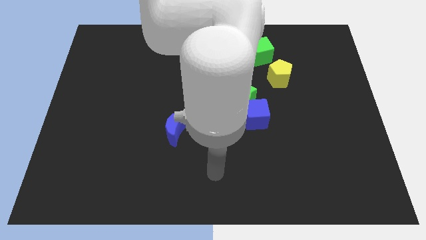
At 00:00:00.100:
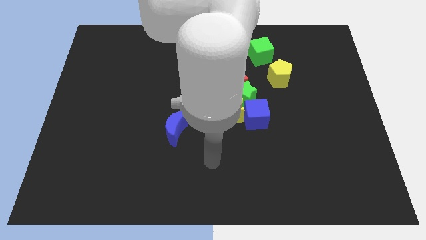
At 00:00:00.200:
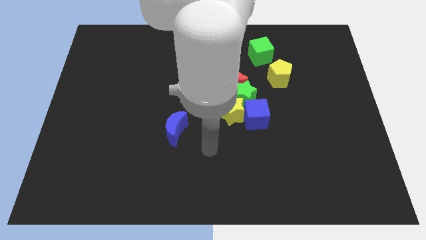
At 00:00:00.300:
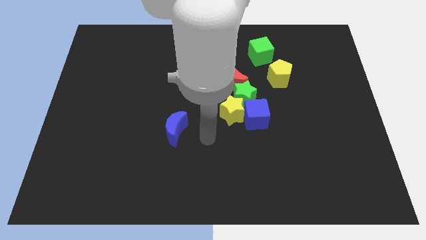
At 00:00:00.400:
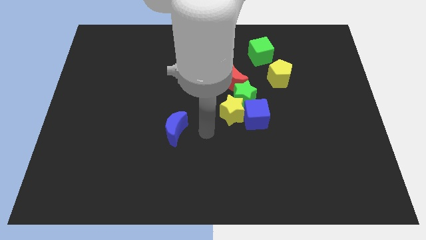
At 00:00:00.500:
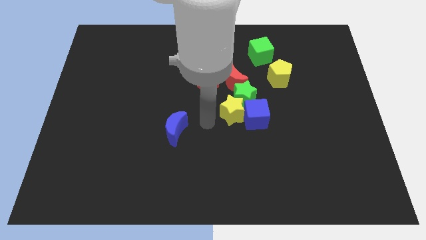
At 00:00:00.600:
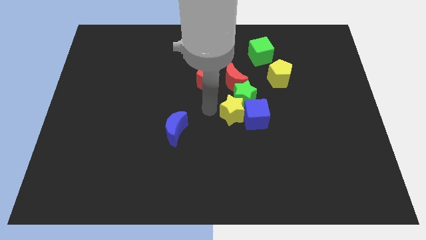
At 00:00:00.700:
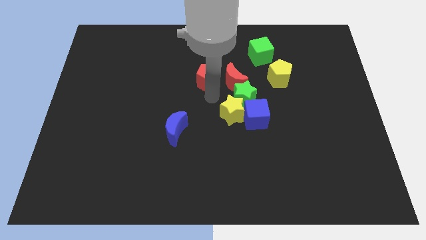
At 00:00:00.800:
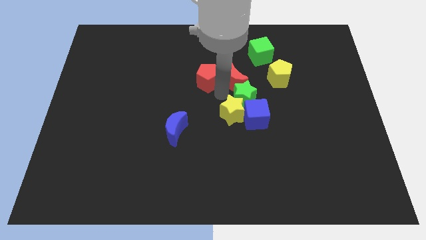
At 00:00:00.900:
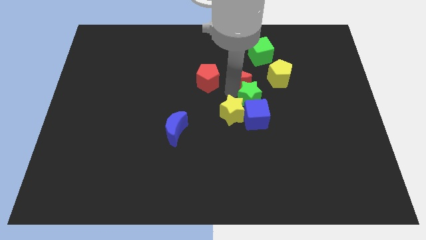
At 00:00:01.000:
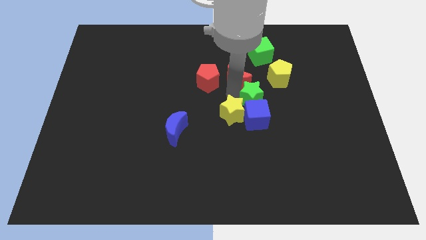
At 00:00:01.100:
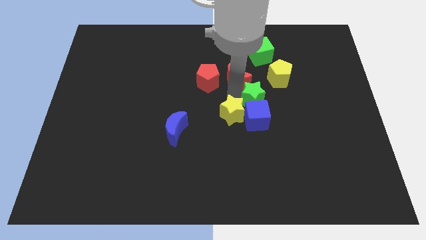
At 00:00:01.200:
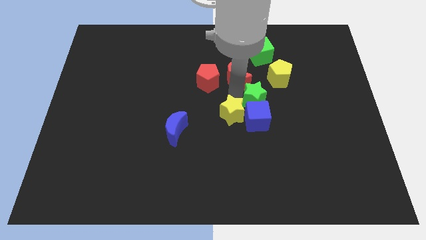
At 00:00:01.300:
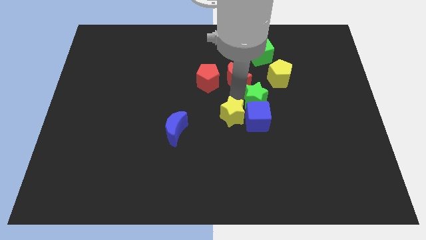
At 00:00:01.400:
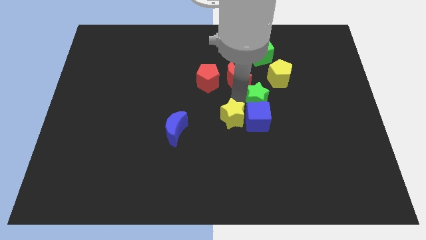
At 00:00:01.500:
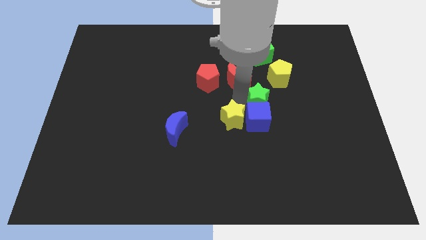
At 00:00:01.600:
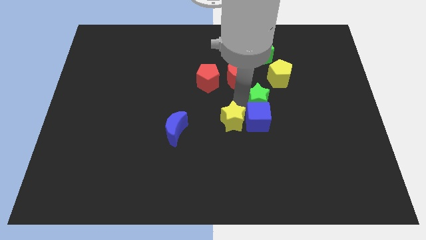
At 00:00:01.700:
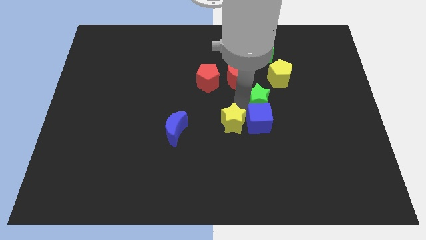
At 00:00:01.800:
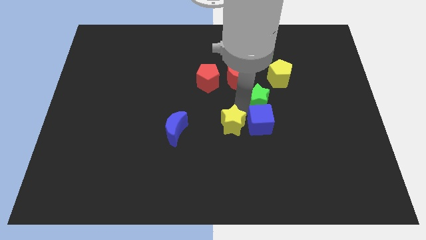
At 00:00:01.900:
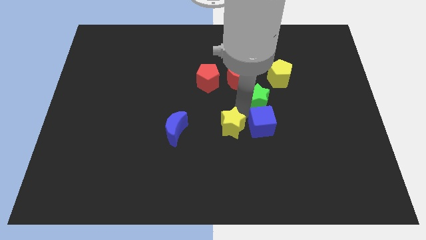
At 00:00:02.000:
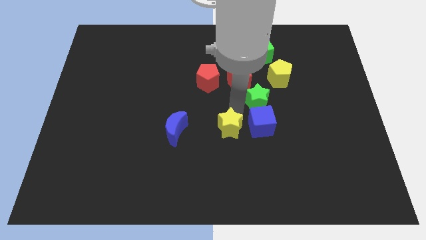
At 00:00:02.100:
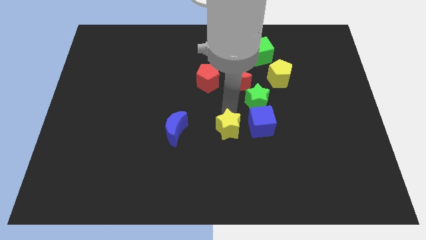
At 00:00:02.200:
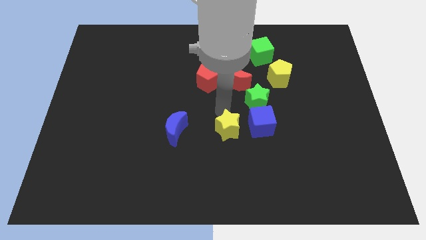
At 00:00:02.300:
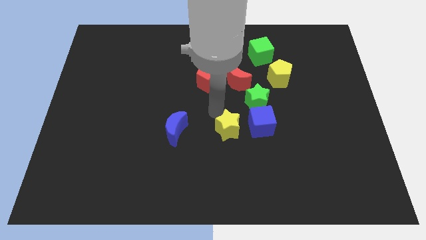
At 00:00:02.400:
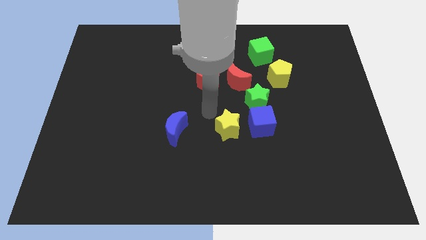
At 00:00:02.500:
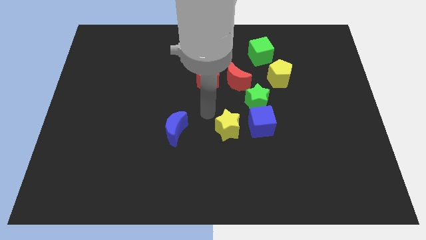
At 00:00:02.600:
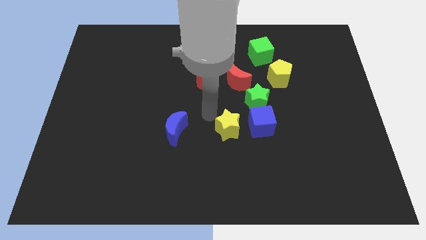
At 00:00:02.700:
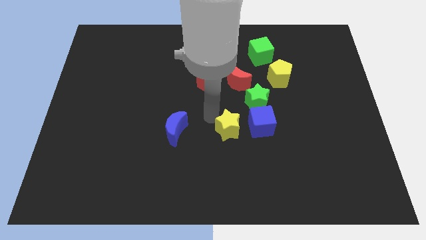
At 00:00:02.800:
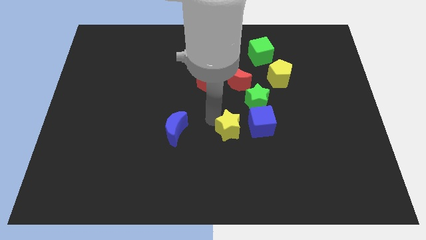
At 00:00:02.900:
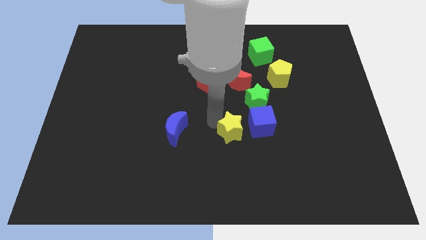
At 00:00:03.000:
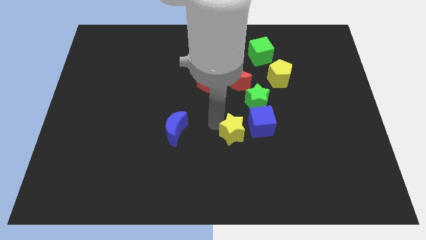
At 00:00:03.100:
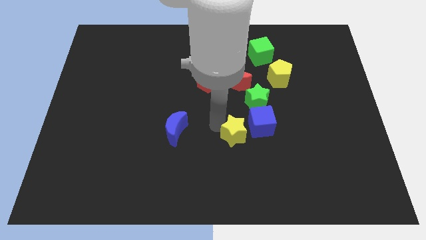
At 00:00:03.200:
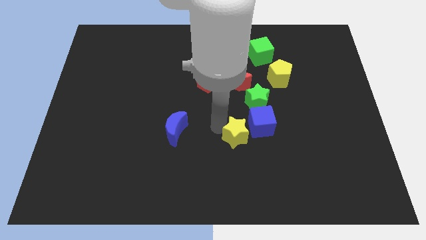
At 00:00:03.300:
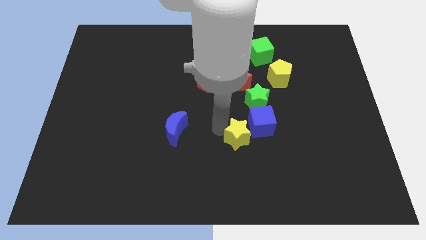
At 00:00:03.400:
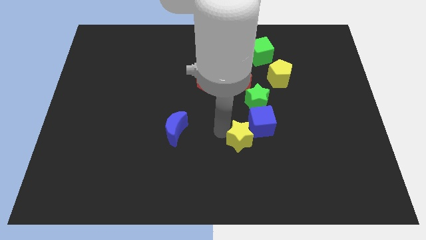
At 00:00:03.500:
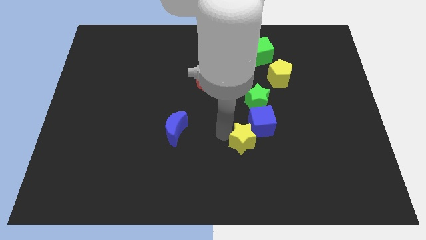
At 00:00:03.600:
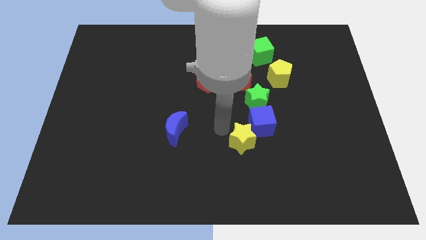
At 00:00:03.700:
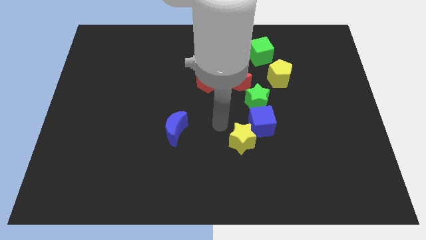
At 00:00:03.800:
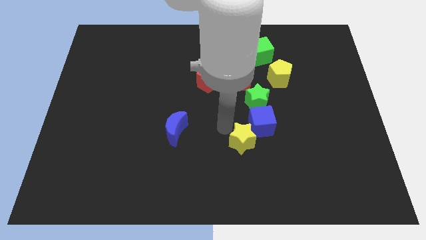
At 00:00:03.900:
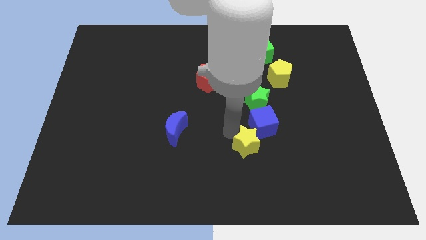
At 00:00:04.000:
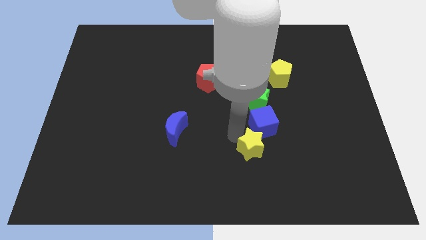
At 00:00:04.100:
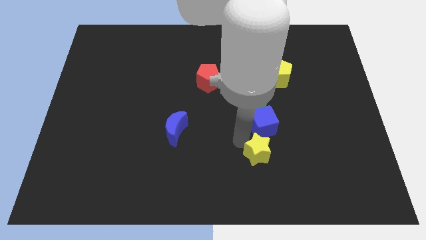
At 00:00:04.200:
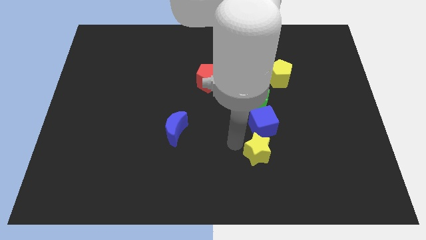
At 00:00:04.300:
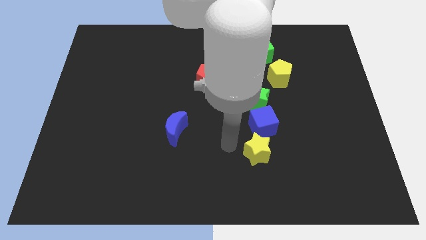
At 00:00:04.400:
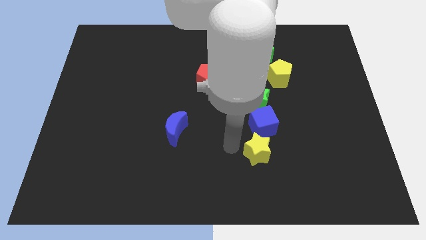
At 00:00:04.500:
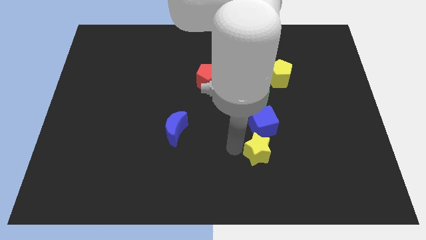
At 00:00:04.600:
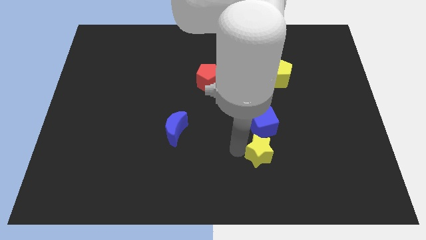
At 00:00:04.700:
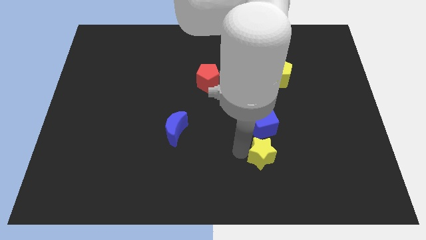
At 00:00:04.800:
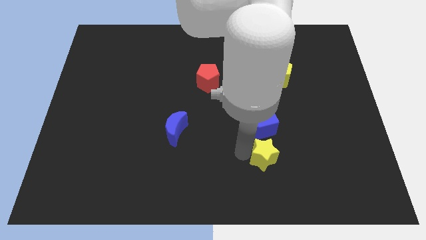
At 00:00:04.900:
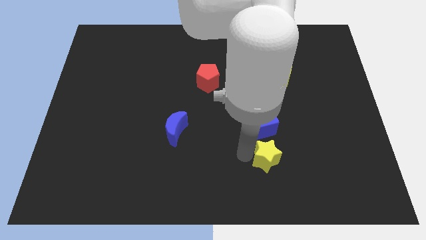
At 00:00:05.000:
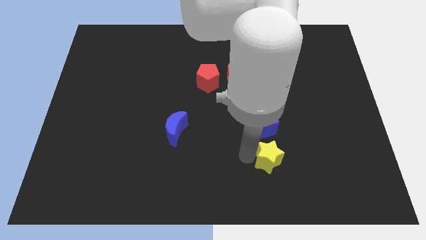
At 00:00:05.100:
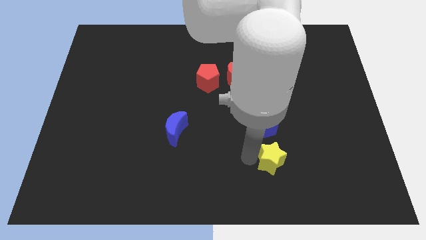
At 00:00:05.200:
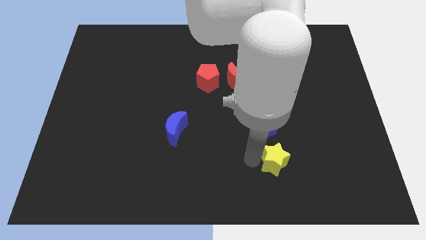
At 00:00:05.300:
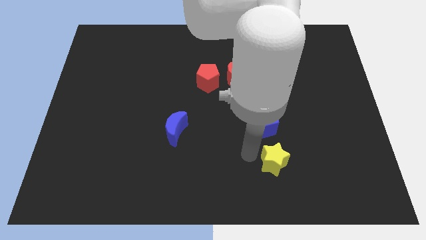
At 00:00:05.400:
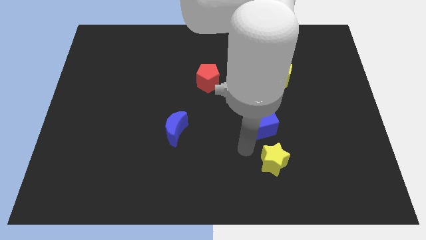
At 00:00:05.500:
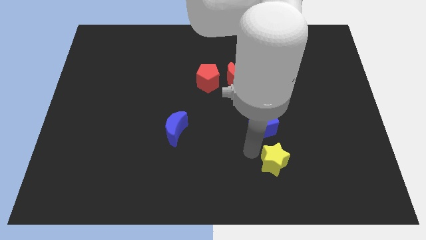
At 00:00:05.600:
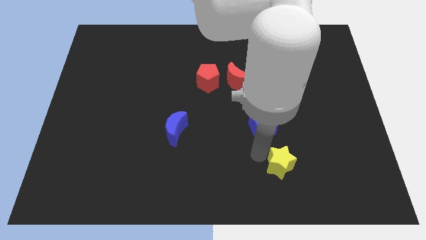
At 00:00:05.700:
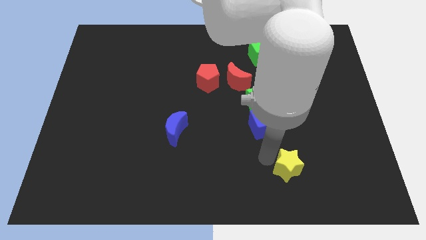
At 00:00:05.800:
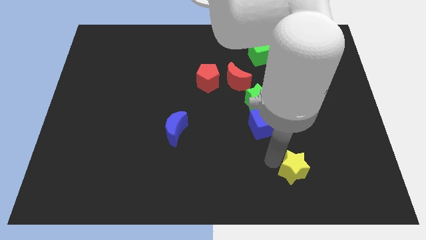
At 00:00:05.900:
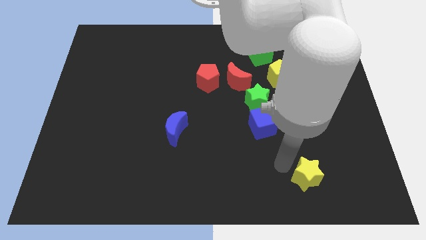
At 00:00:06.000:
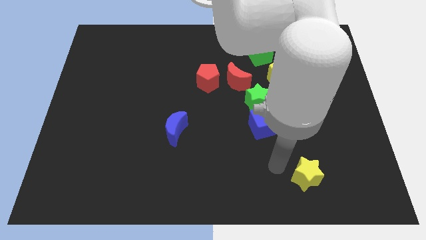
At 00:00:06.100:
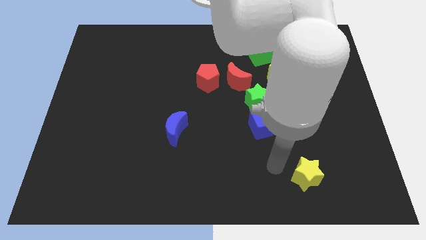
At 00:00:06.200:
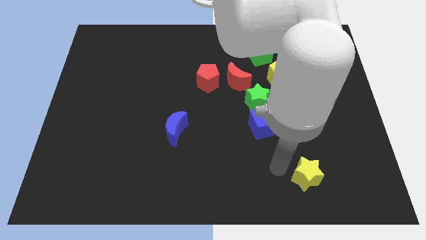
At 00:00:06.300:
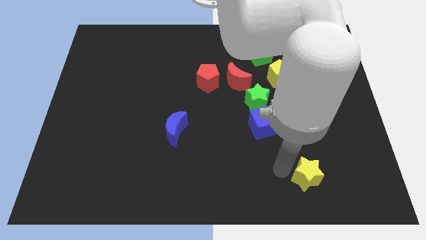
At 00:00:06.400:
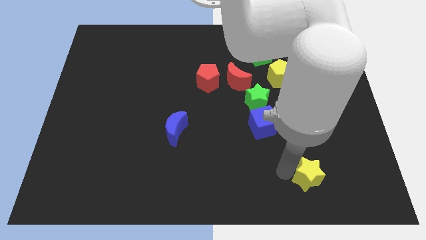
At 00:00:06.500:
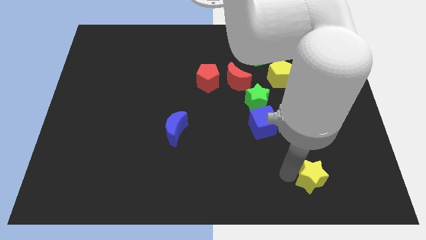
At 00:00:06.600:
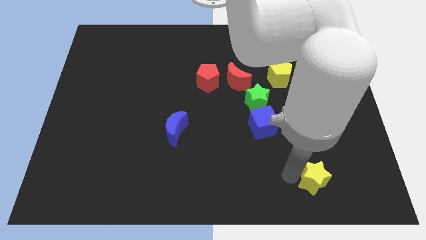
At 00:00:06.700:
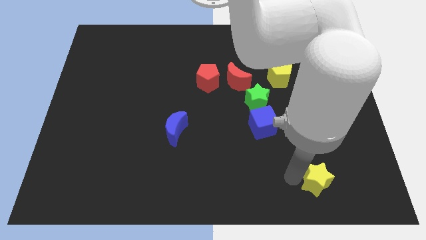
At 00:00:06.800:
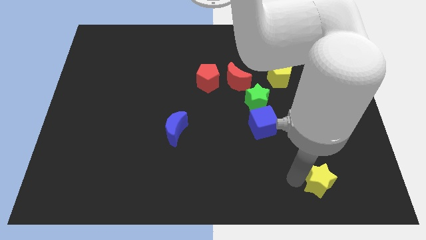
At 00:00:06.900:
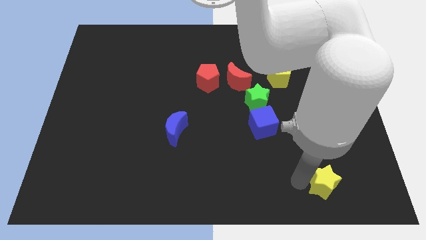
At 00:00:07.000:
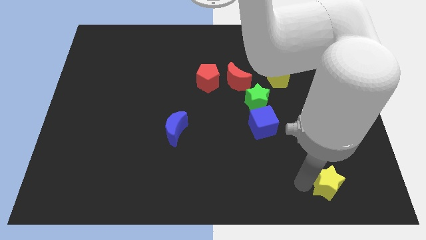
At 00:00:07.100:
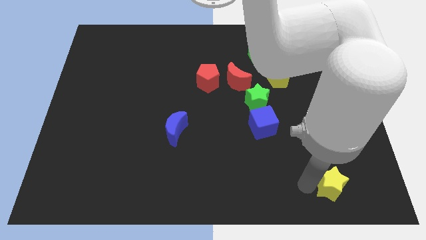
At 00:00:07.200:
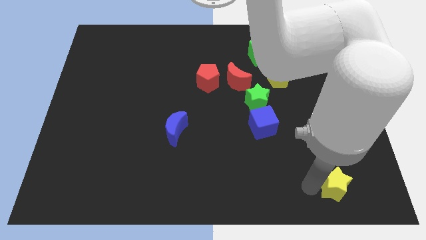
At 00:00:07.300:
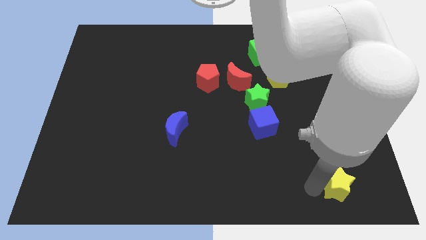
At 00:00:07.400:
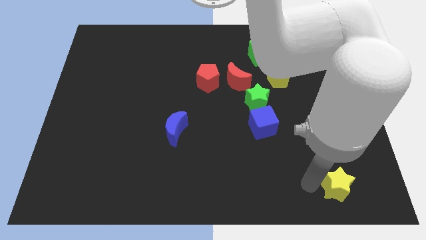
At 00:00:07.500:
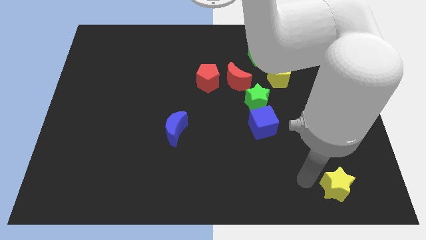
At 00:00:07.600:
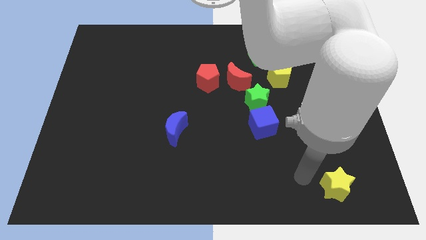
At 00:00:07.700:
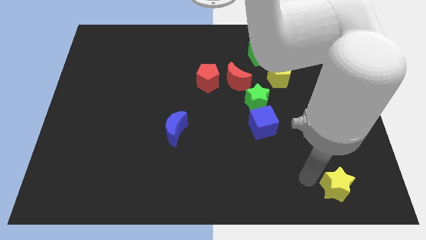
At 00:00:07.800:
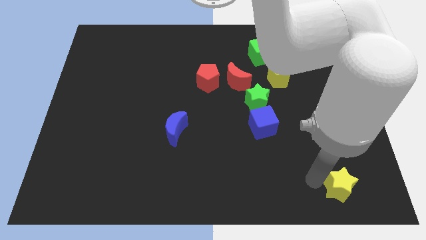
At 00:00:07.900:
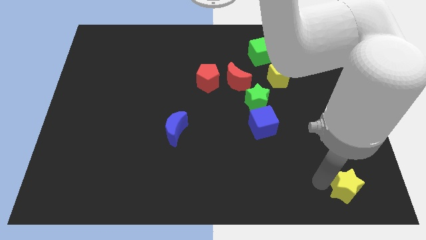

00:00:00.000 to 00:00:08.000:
move the yellow star to the bottom right of the board

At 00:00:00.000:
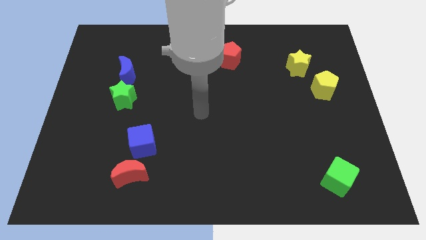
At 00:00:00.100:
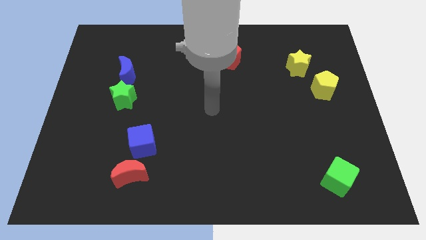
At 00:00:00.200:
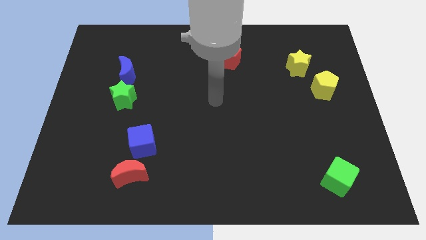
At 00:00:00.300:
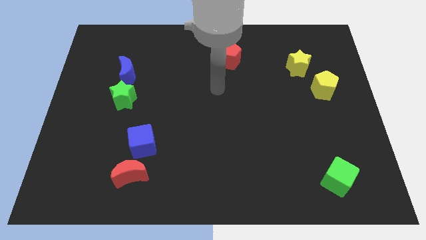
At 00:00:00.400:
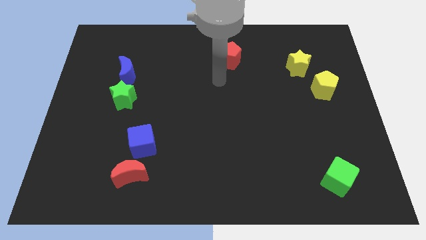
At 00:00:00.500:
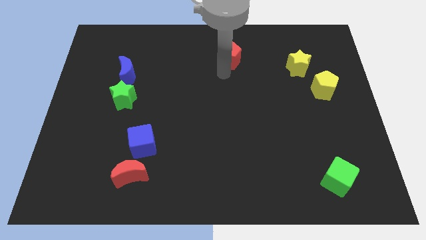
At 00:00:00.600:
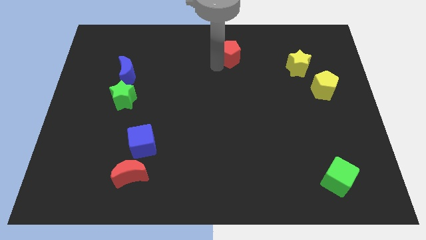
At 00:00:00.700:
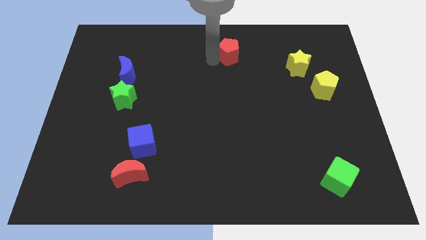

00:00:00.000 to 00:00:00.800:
put the red pentagon to the top
